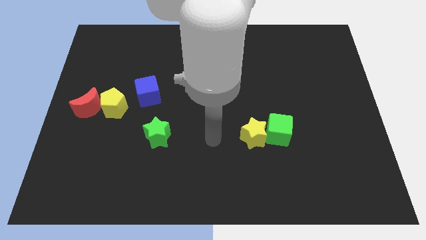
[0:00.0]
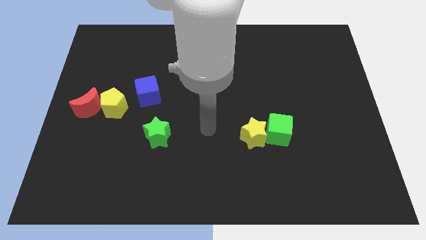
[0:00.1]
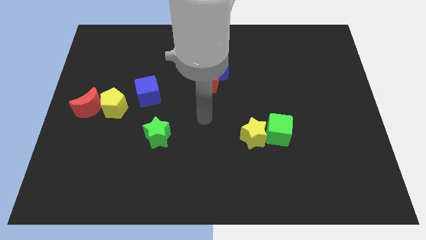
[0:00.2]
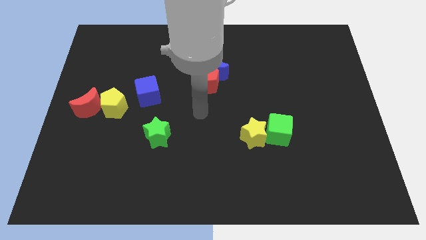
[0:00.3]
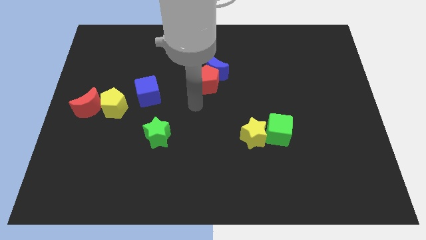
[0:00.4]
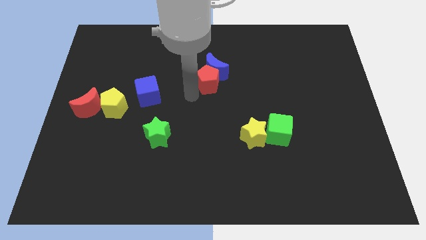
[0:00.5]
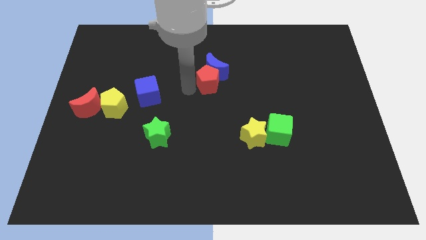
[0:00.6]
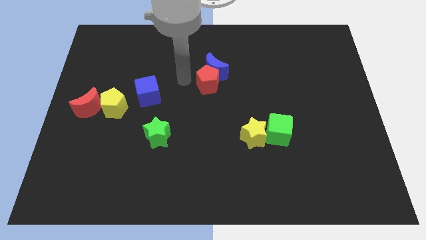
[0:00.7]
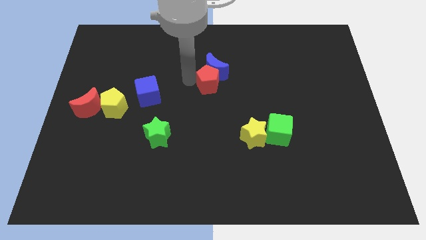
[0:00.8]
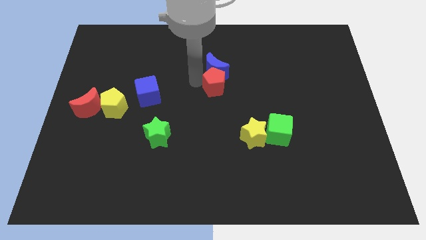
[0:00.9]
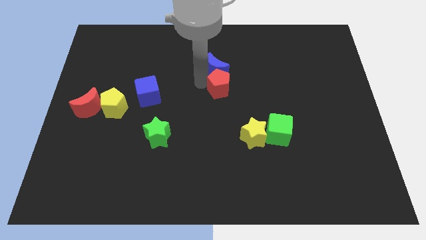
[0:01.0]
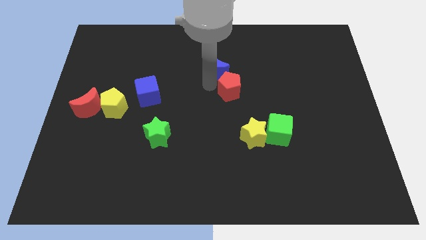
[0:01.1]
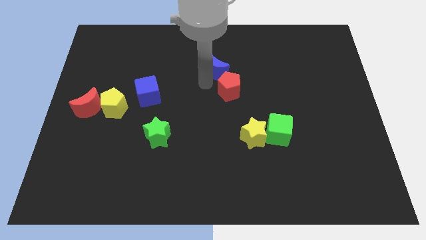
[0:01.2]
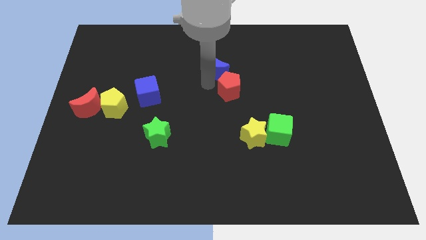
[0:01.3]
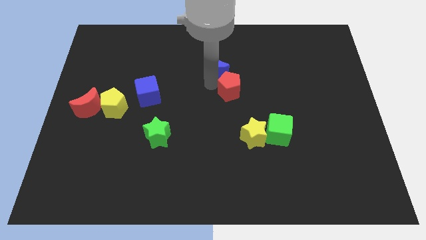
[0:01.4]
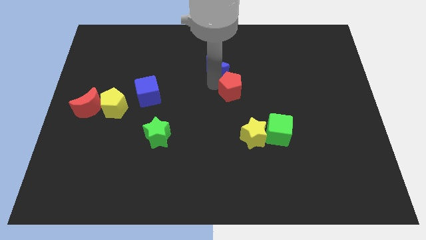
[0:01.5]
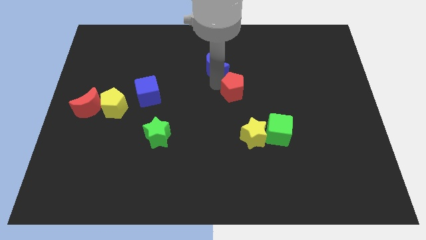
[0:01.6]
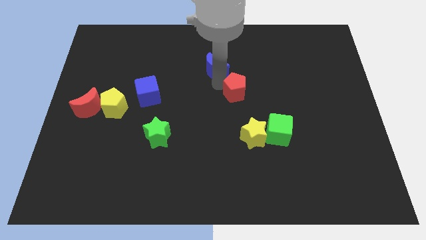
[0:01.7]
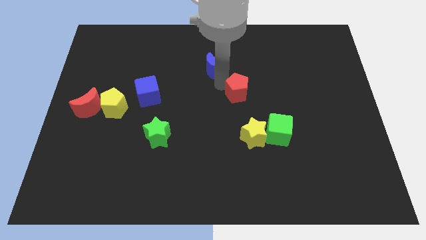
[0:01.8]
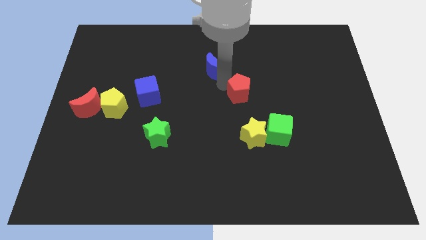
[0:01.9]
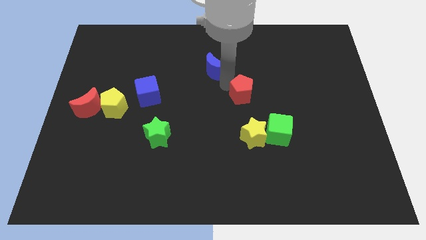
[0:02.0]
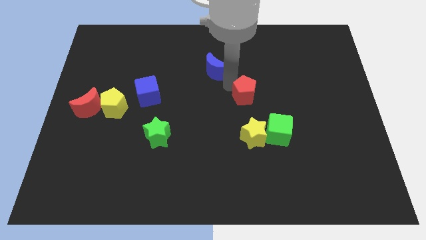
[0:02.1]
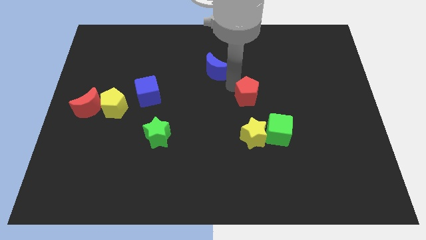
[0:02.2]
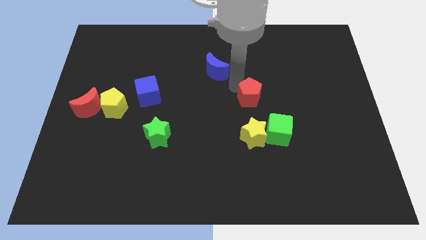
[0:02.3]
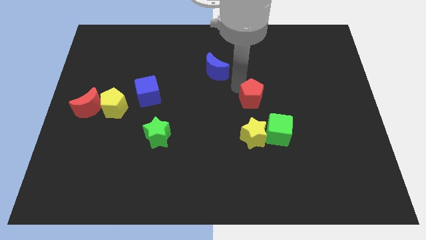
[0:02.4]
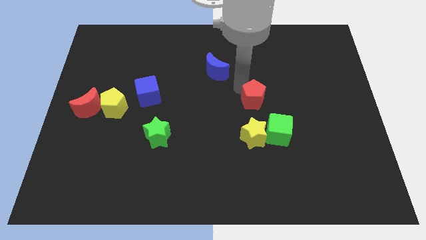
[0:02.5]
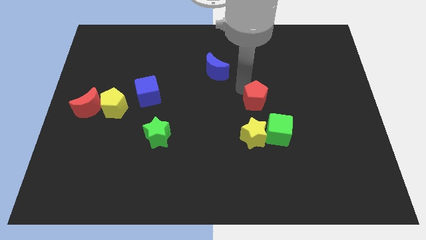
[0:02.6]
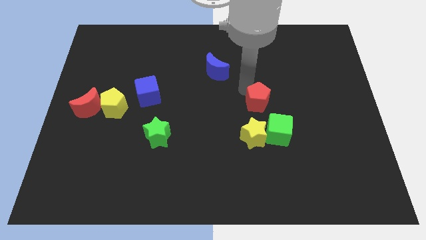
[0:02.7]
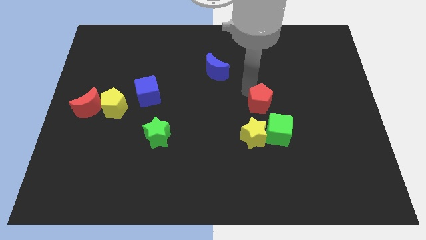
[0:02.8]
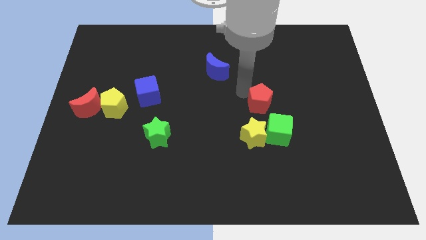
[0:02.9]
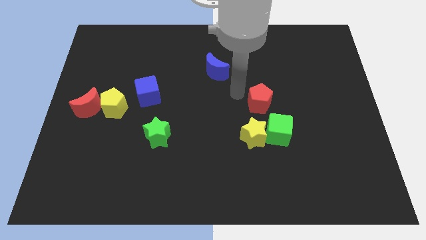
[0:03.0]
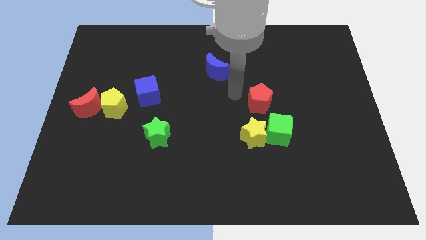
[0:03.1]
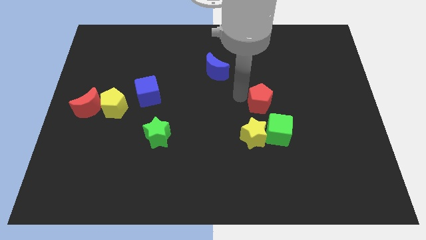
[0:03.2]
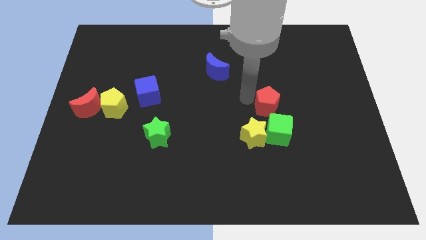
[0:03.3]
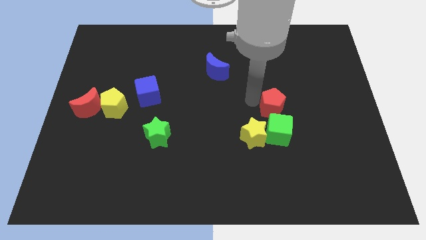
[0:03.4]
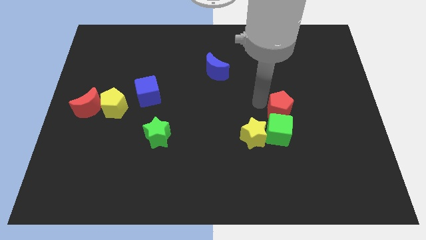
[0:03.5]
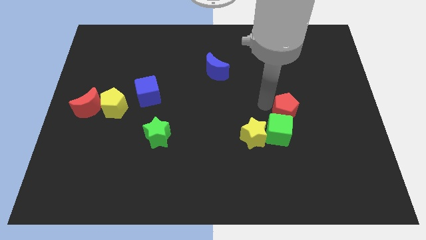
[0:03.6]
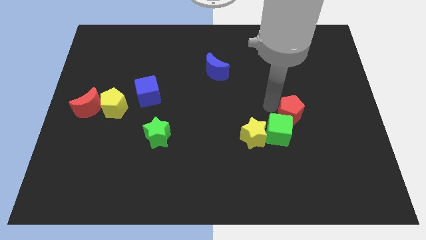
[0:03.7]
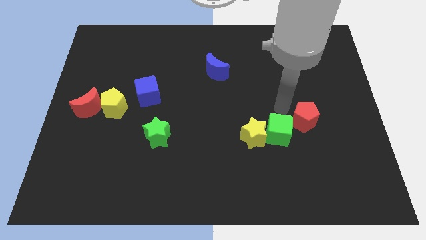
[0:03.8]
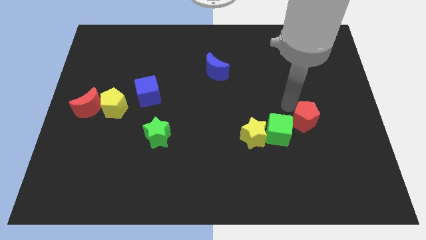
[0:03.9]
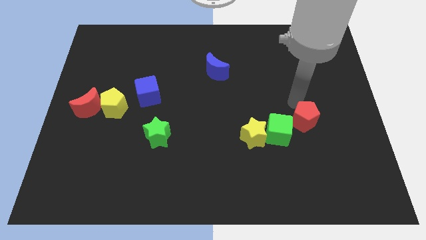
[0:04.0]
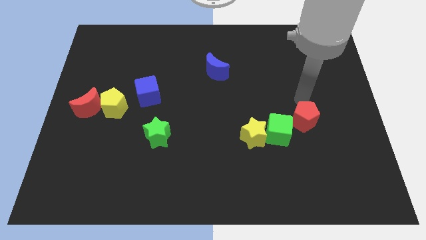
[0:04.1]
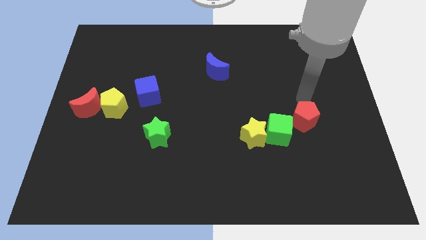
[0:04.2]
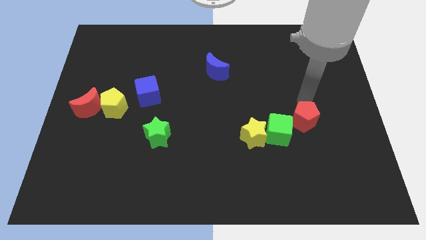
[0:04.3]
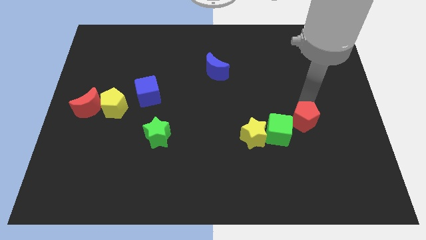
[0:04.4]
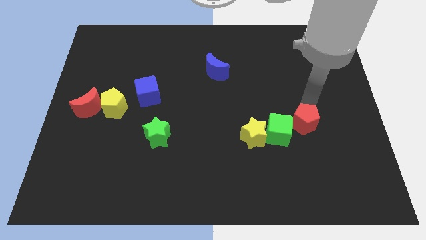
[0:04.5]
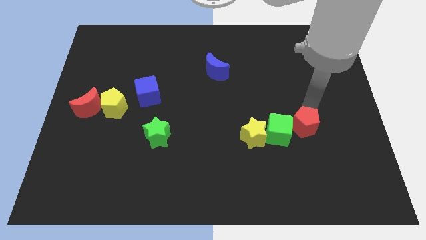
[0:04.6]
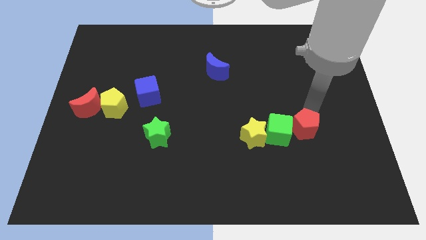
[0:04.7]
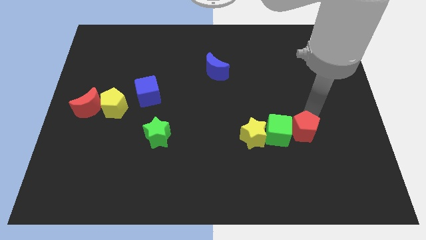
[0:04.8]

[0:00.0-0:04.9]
slide the red pentagon to the bottom right side of the green cube

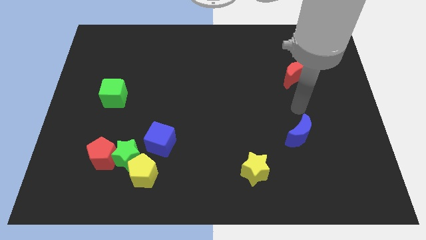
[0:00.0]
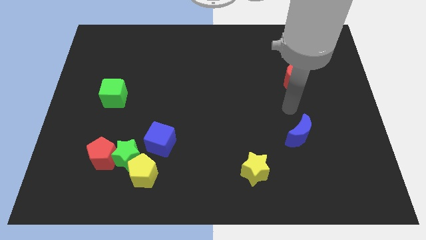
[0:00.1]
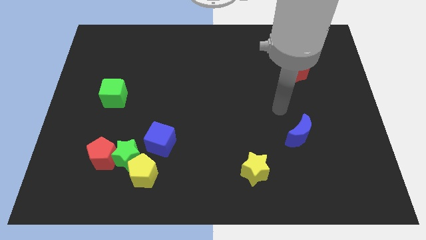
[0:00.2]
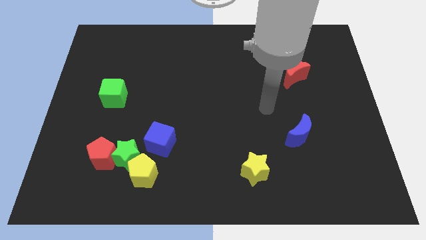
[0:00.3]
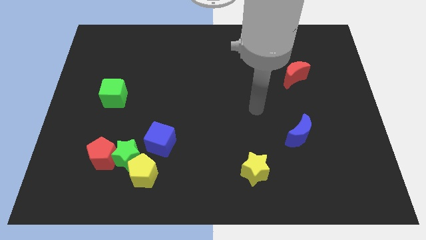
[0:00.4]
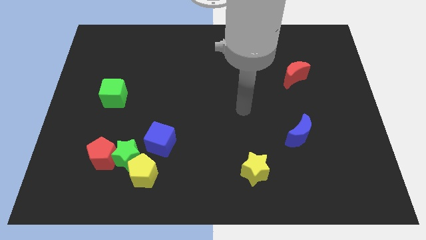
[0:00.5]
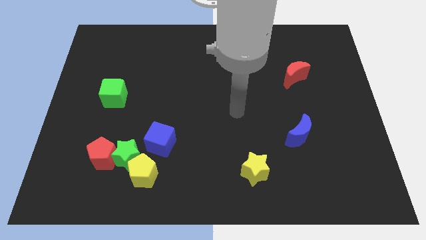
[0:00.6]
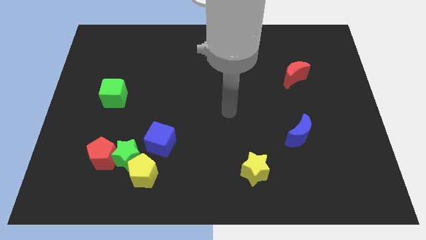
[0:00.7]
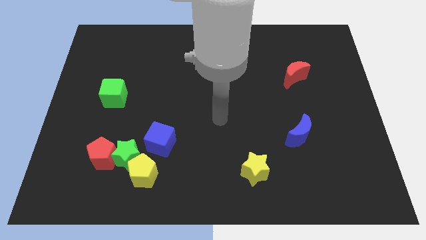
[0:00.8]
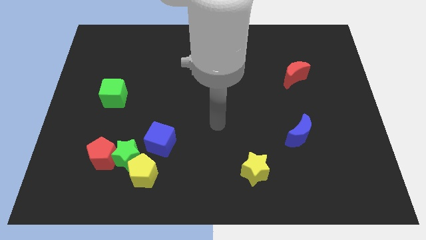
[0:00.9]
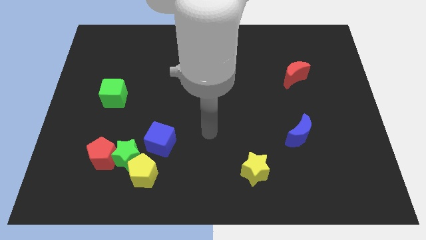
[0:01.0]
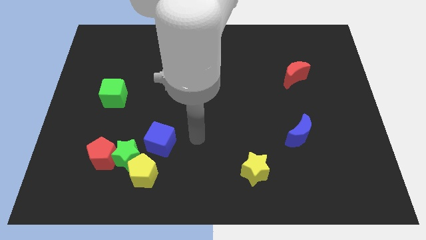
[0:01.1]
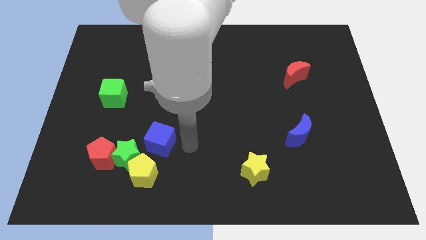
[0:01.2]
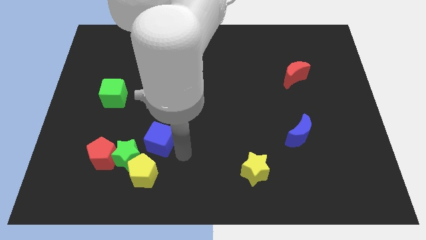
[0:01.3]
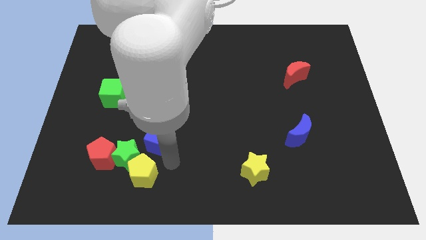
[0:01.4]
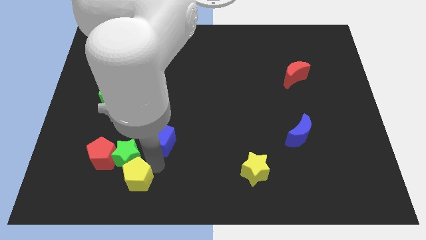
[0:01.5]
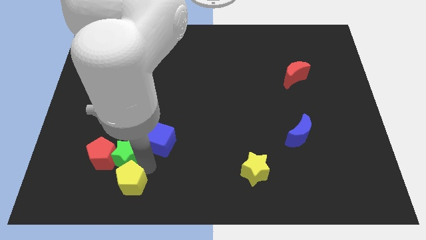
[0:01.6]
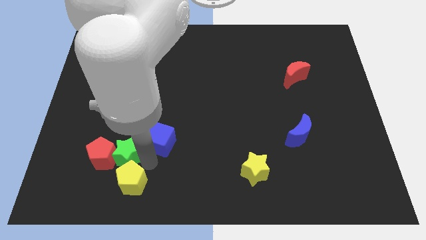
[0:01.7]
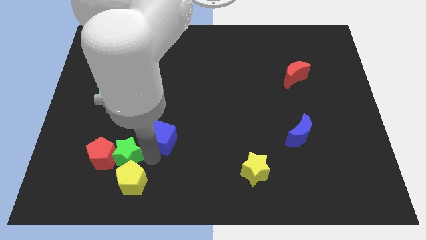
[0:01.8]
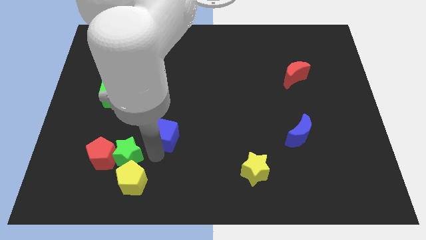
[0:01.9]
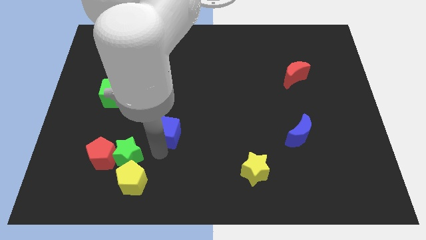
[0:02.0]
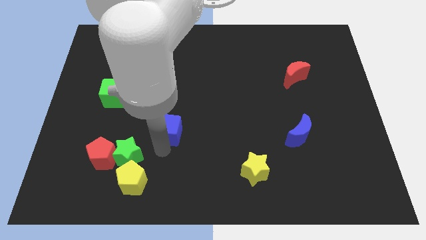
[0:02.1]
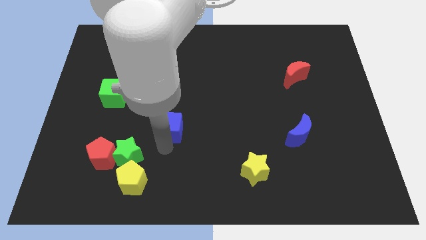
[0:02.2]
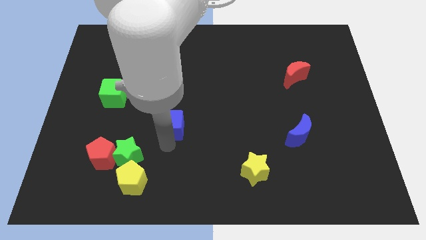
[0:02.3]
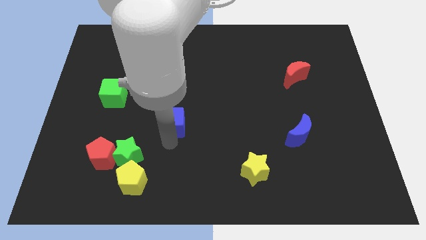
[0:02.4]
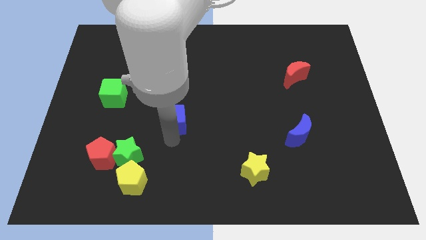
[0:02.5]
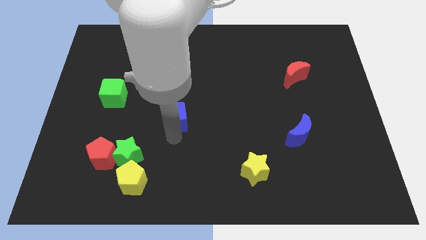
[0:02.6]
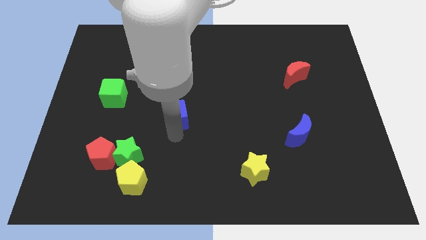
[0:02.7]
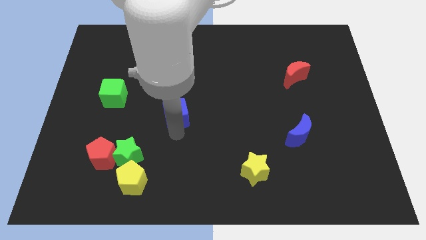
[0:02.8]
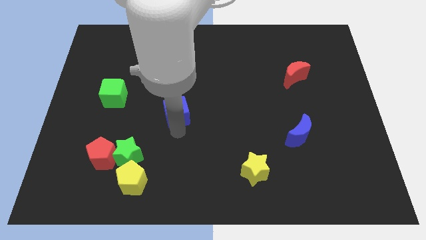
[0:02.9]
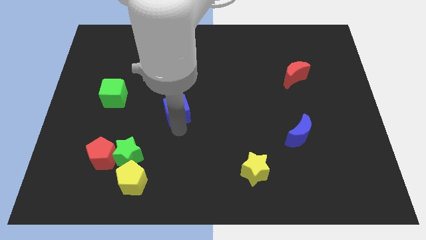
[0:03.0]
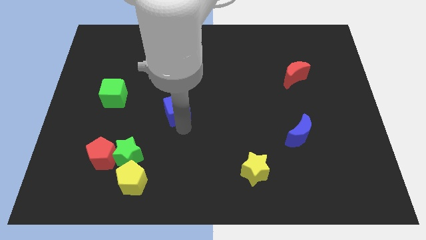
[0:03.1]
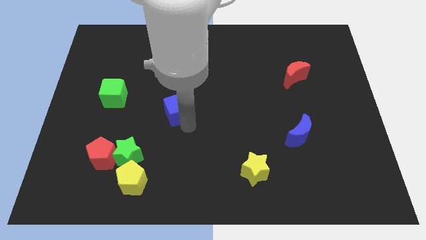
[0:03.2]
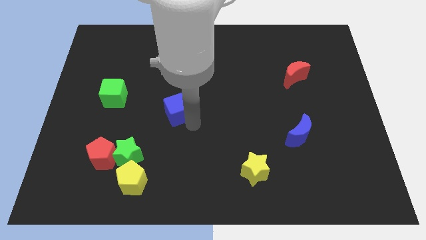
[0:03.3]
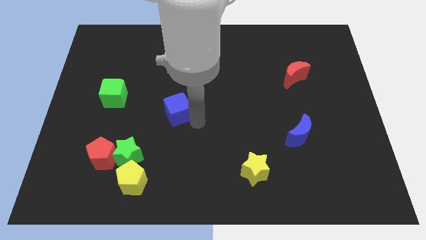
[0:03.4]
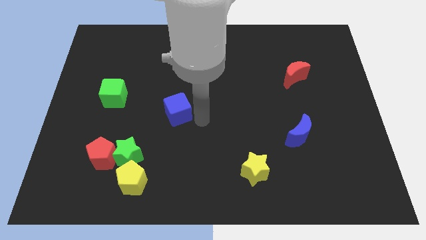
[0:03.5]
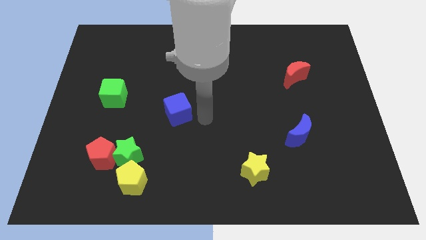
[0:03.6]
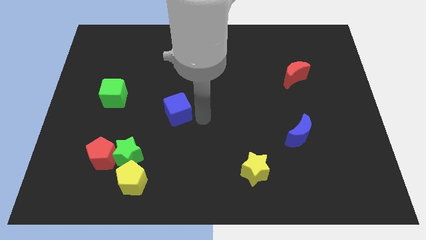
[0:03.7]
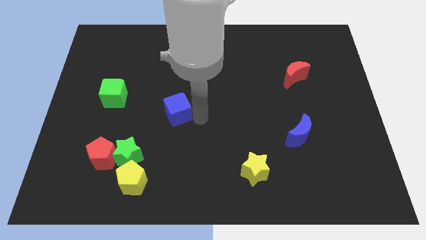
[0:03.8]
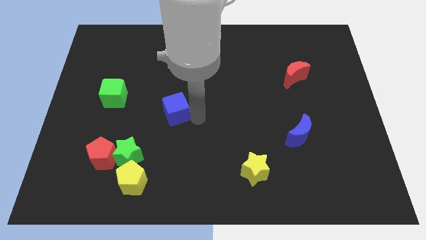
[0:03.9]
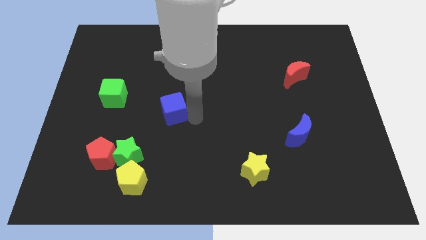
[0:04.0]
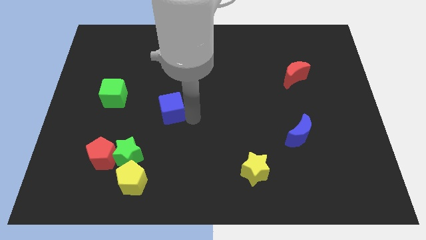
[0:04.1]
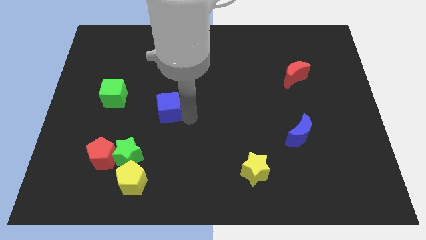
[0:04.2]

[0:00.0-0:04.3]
move the blue cube just right of the green cube
